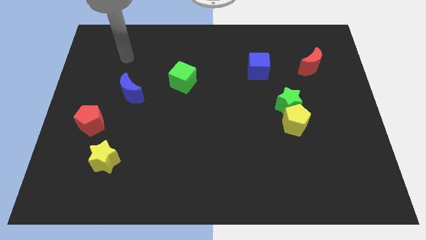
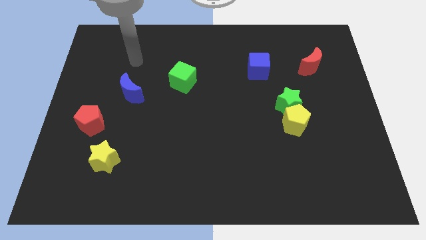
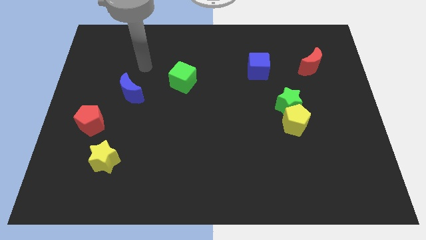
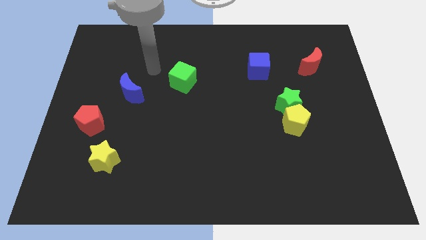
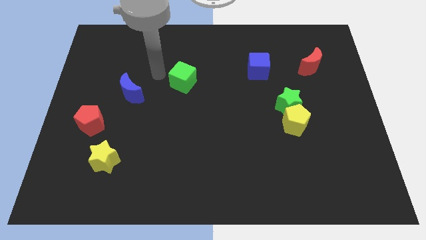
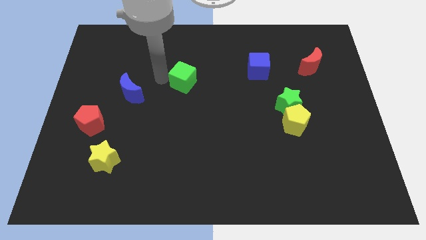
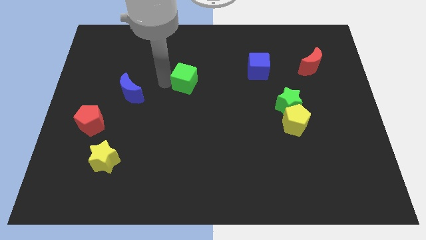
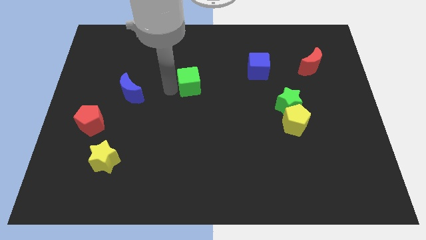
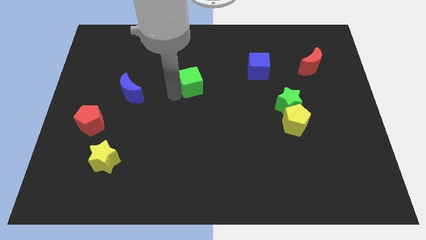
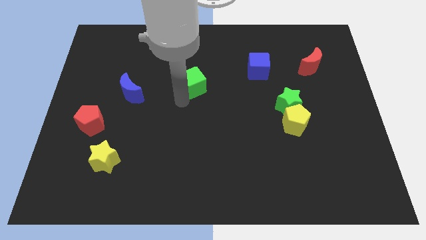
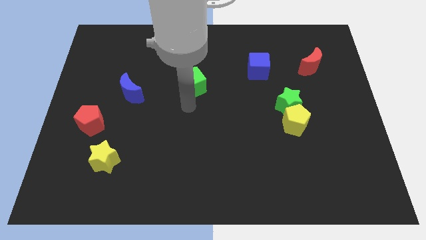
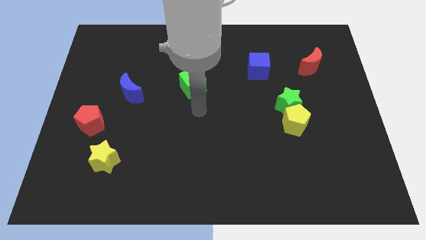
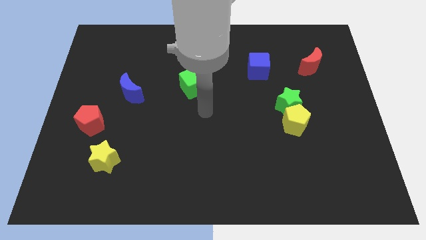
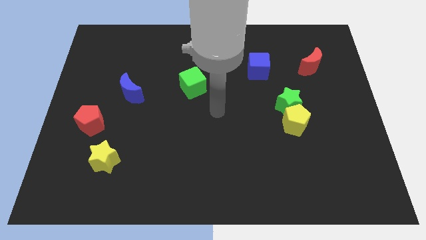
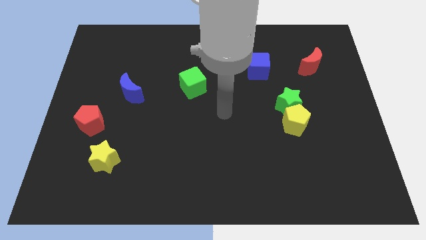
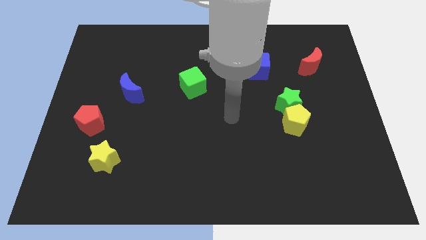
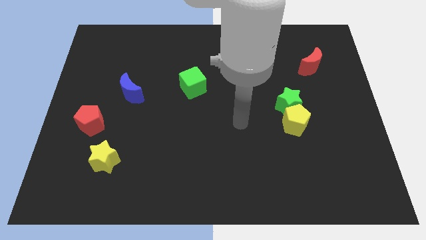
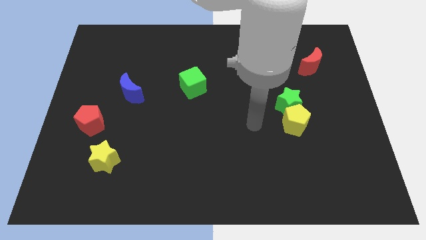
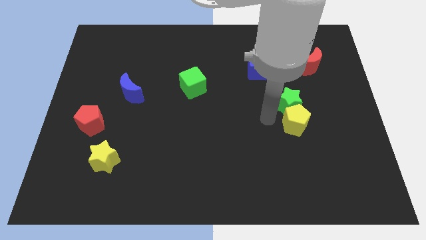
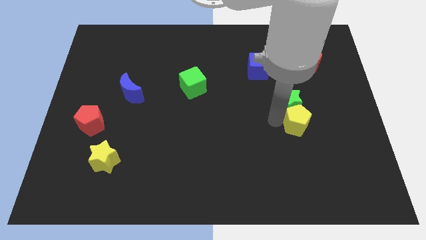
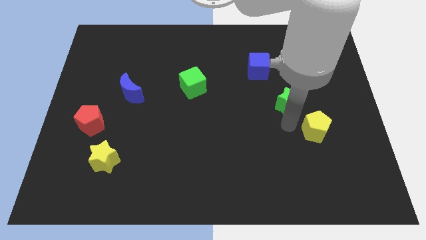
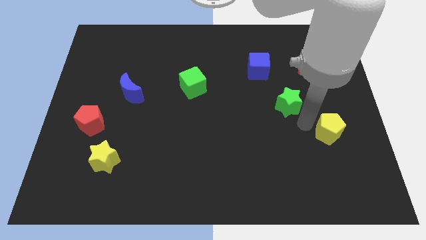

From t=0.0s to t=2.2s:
move the green star away from the yellow pentagon

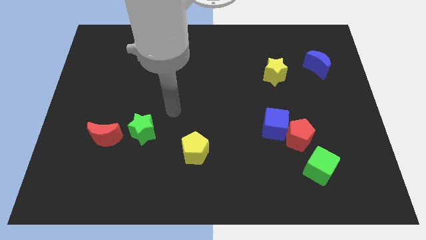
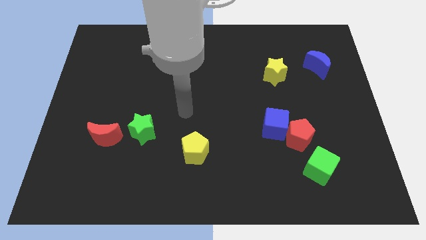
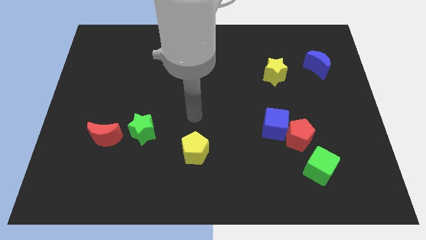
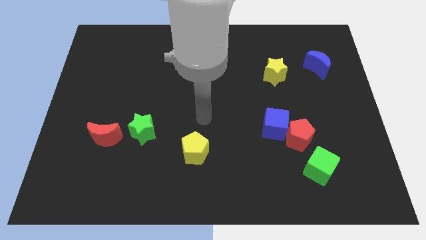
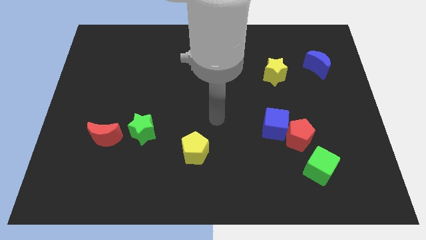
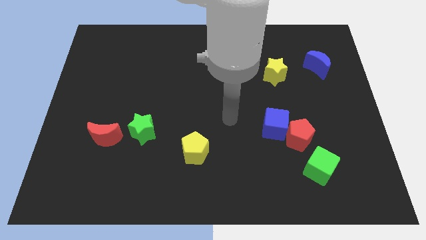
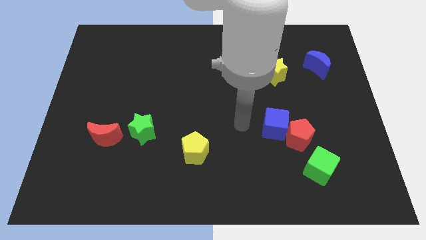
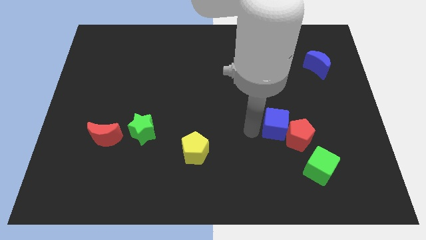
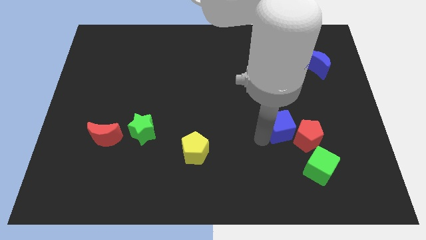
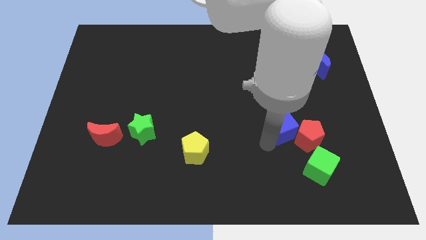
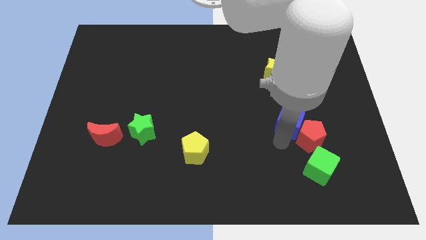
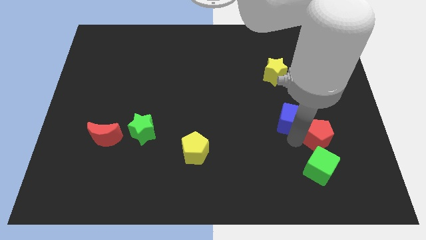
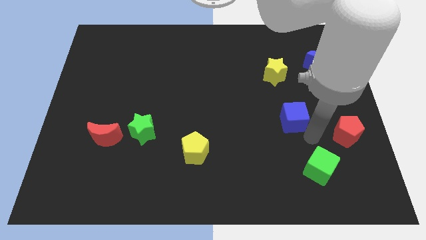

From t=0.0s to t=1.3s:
pull the blue cube apart from the red pentagon

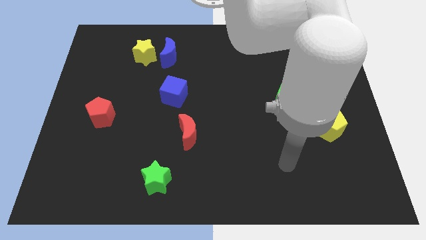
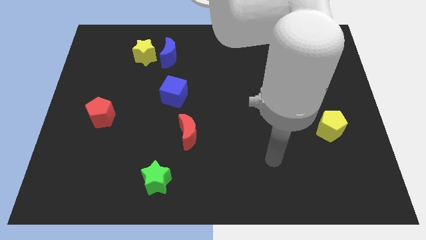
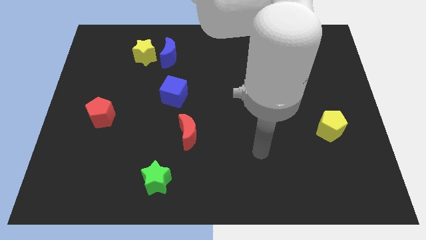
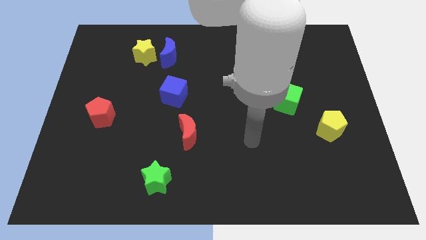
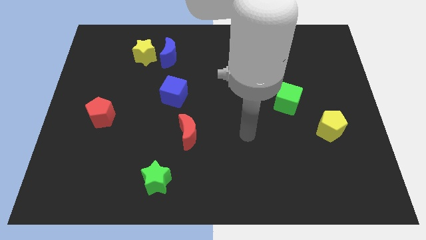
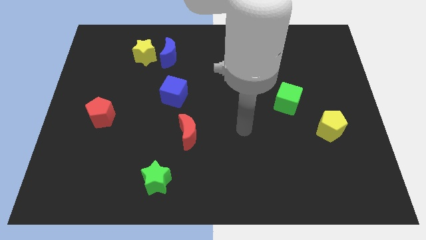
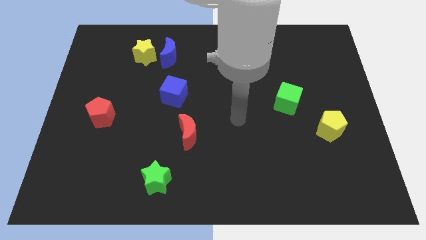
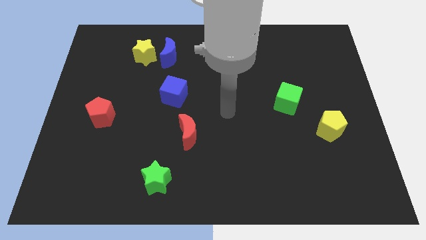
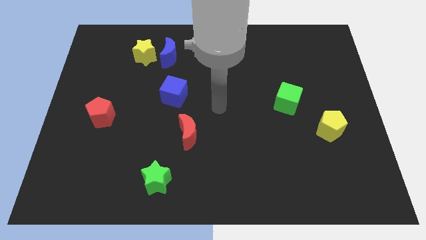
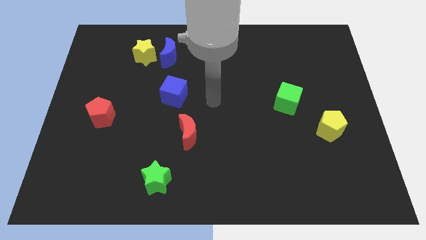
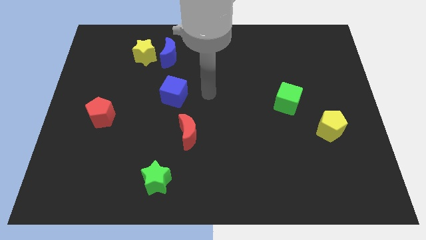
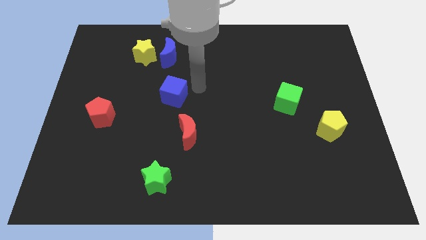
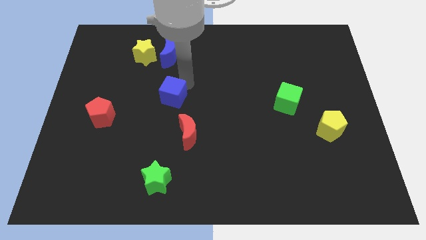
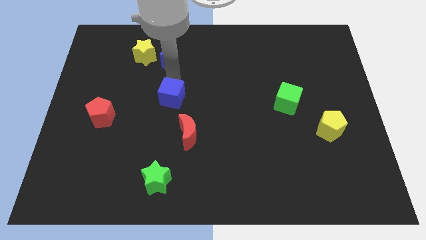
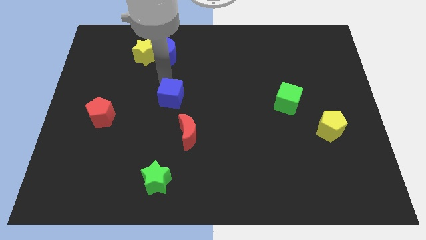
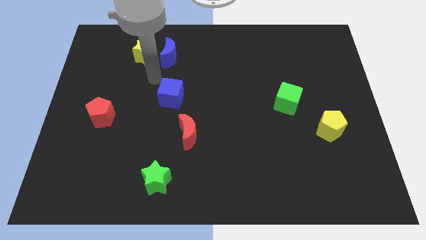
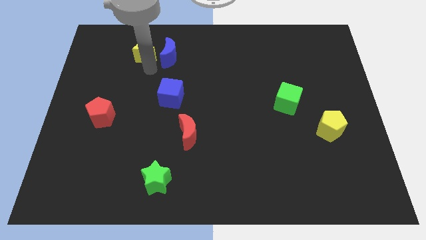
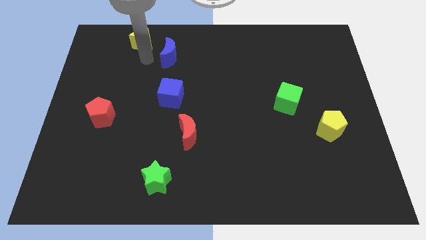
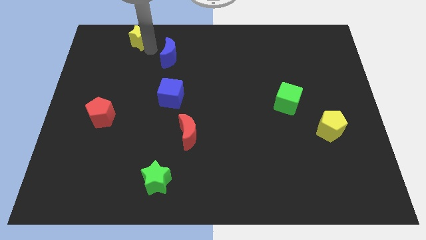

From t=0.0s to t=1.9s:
pull the blue moon apart from the yellow star

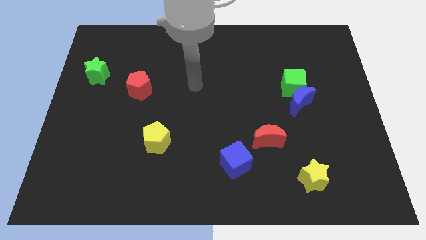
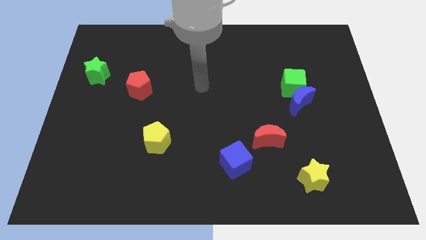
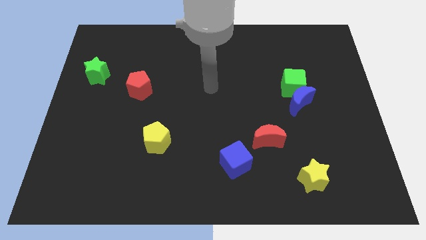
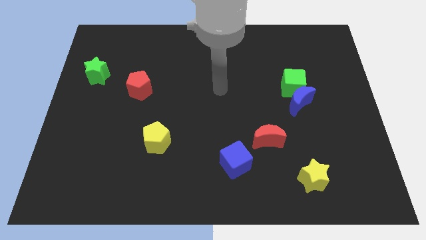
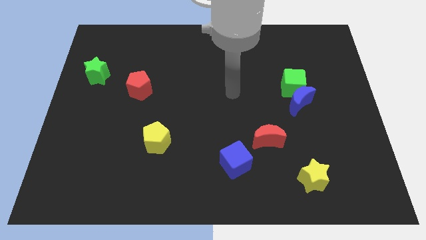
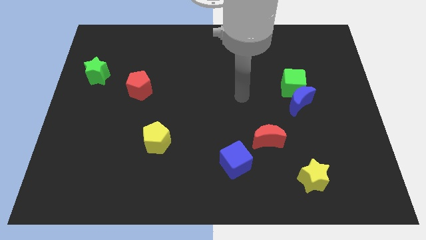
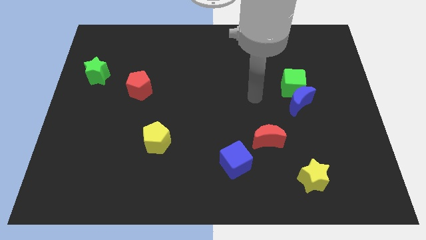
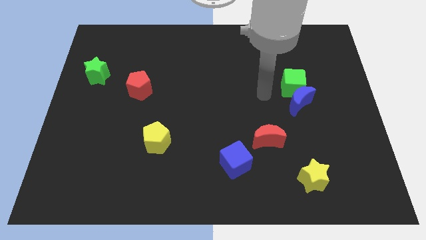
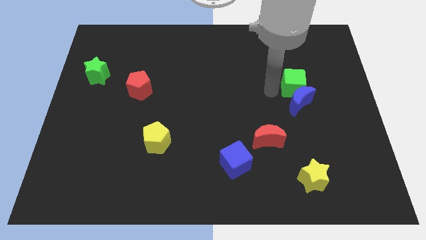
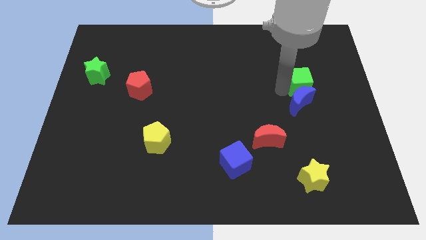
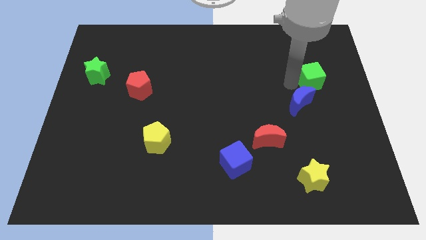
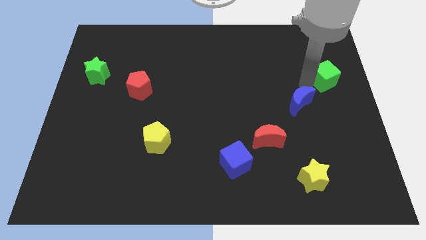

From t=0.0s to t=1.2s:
move the blue moon away from the green cube

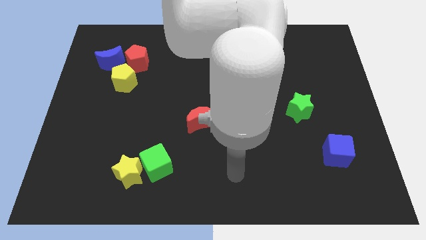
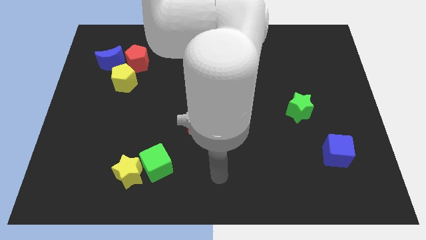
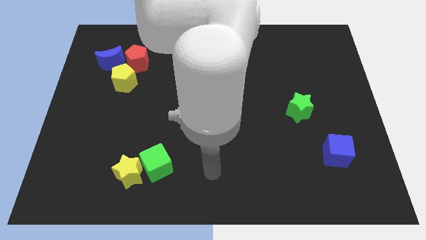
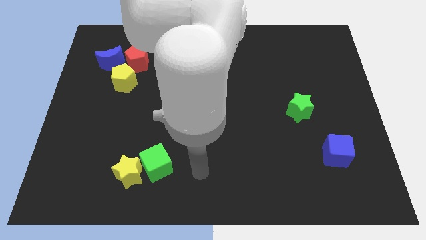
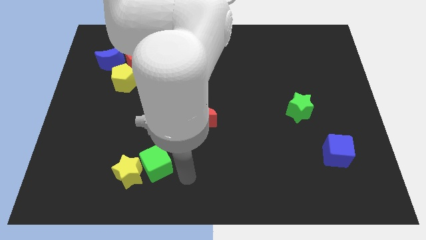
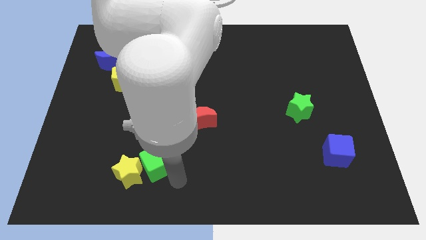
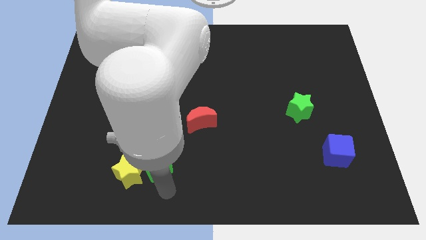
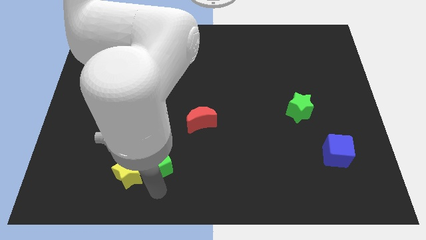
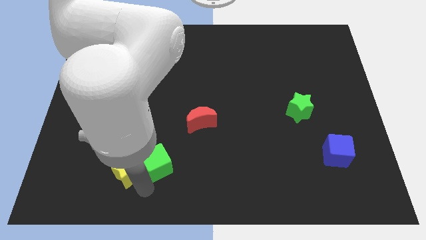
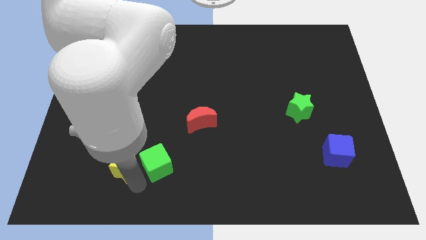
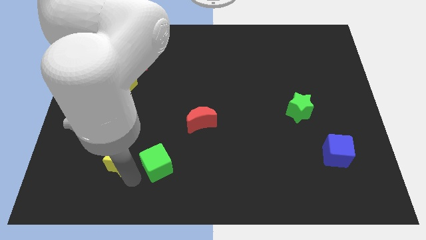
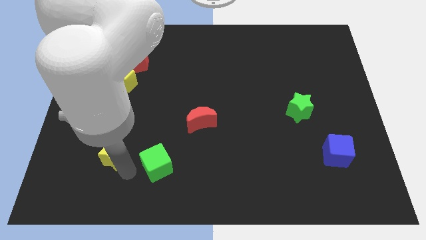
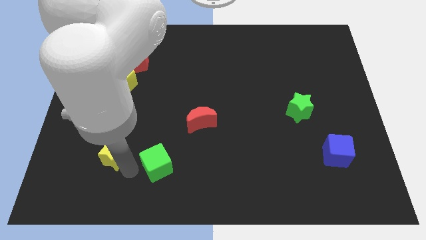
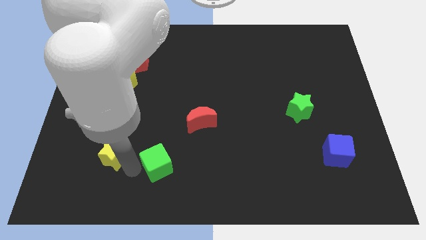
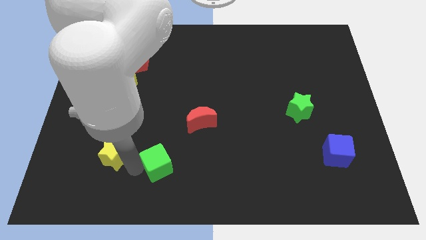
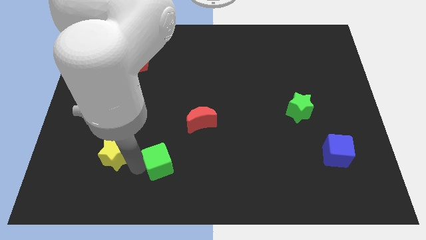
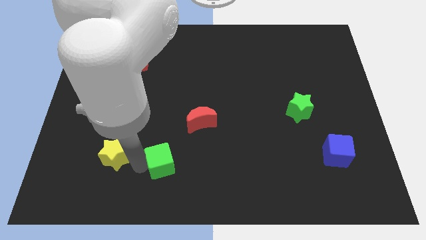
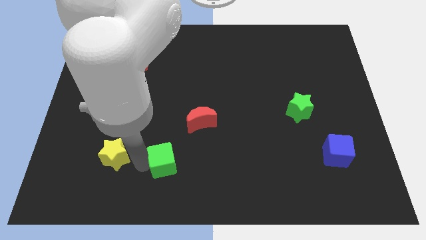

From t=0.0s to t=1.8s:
separate the green cube from the yellow star

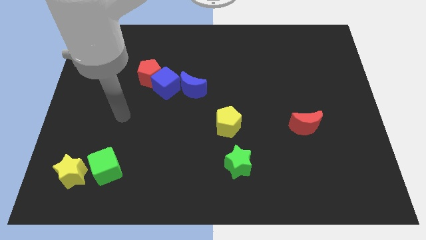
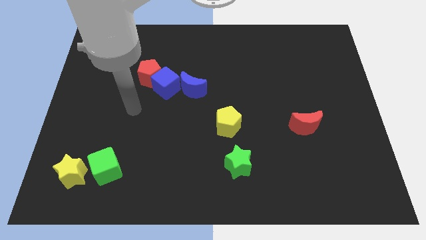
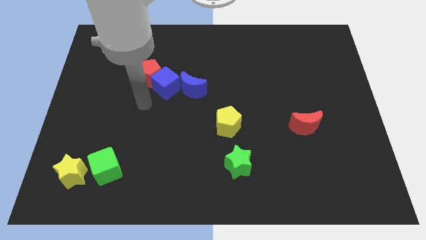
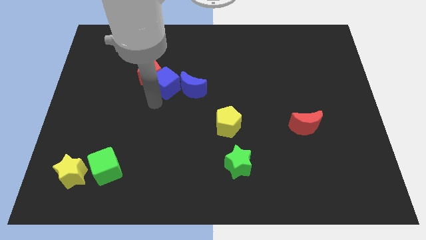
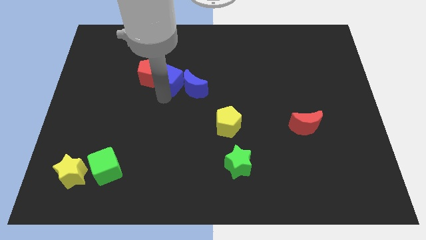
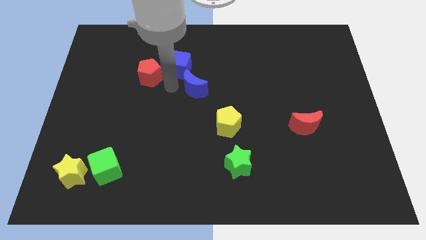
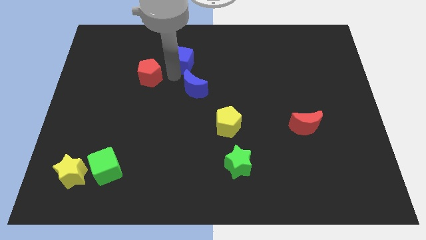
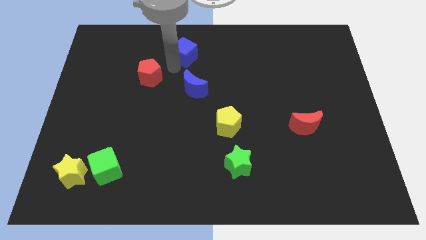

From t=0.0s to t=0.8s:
move the red pentagon away from the blue cube
